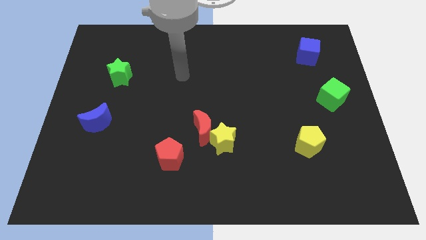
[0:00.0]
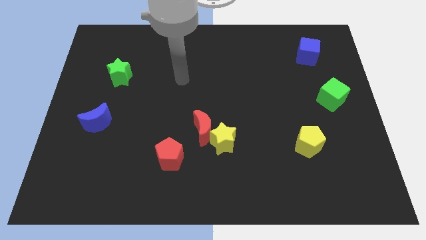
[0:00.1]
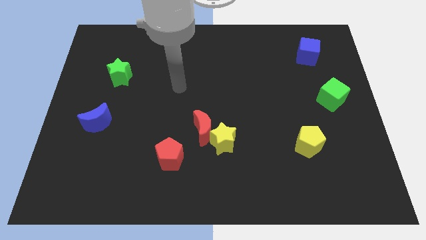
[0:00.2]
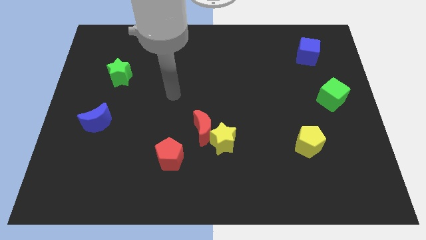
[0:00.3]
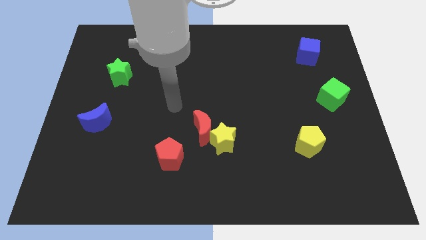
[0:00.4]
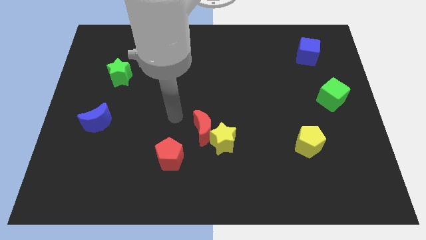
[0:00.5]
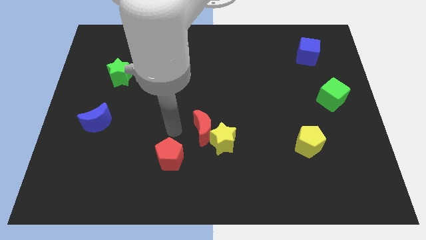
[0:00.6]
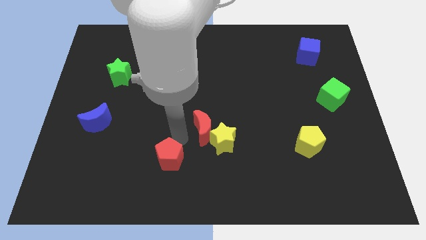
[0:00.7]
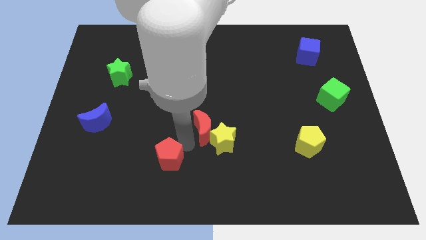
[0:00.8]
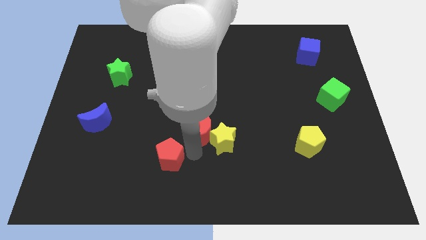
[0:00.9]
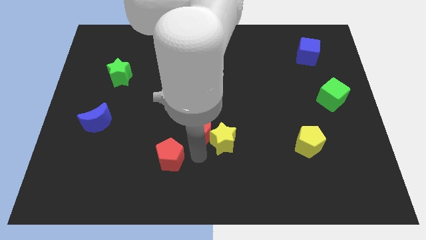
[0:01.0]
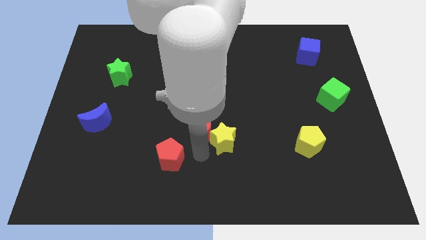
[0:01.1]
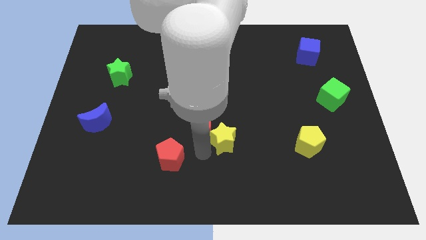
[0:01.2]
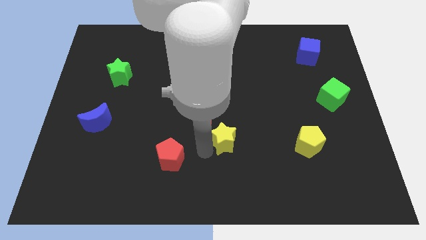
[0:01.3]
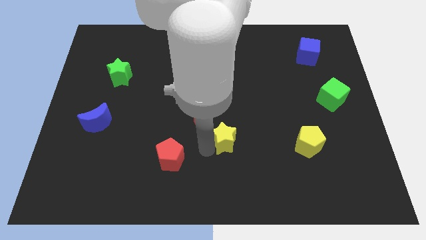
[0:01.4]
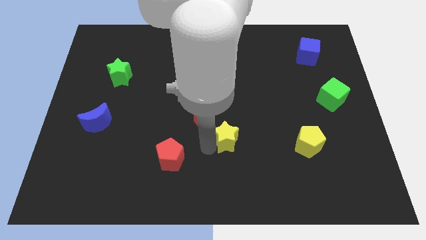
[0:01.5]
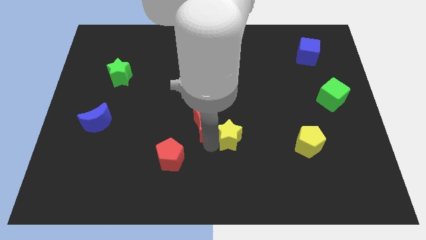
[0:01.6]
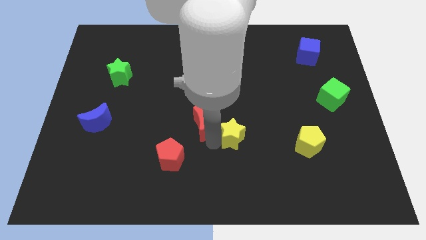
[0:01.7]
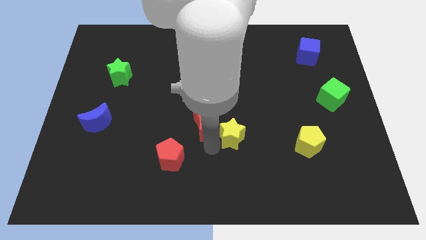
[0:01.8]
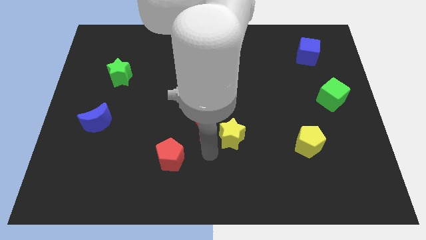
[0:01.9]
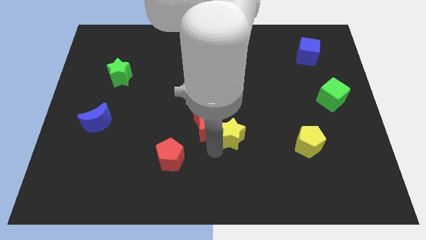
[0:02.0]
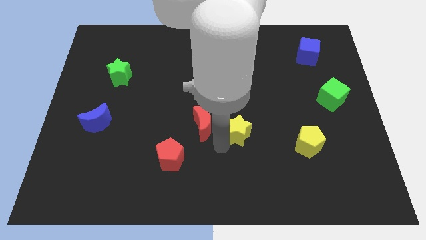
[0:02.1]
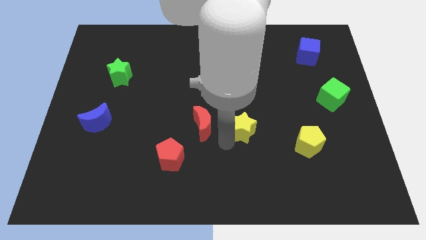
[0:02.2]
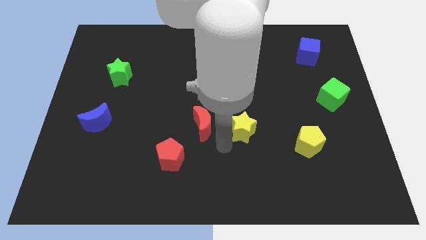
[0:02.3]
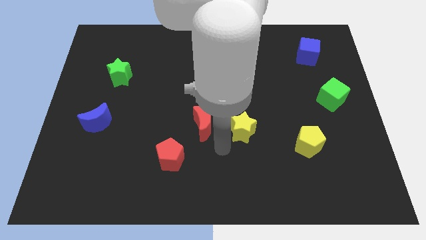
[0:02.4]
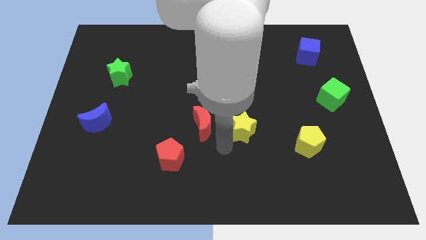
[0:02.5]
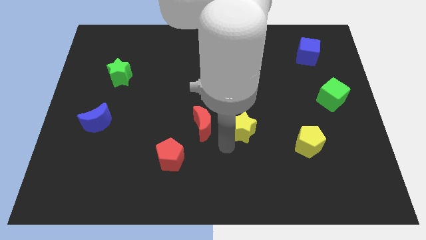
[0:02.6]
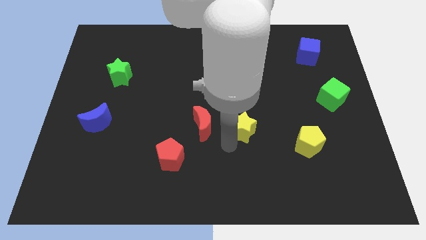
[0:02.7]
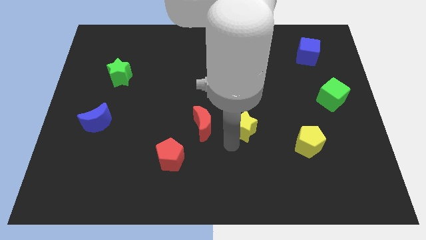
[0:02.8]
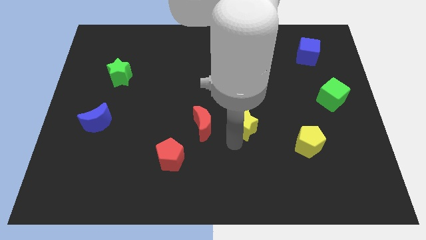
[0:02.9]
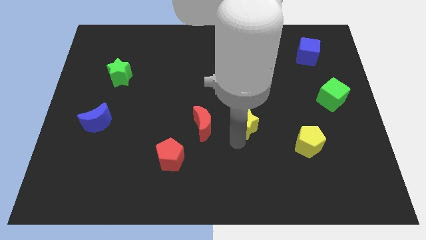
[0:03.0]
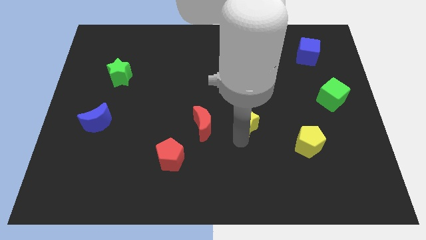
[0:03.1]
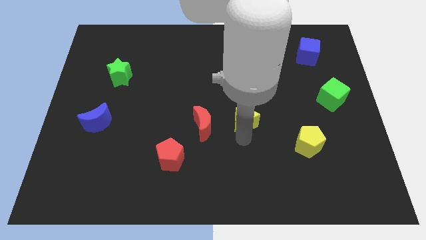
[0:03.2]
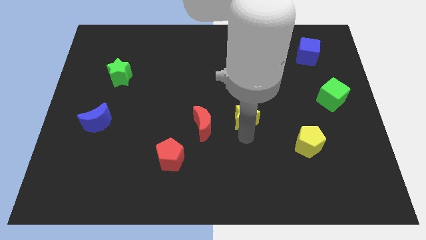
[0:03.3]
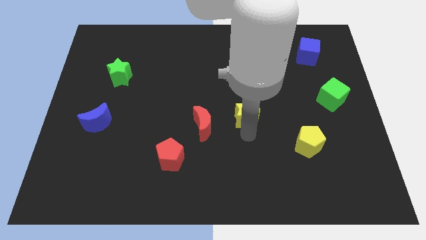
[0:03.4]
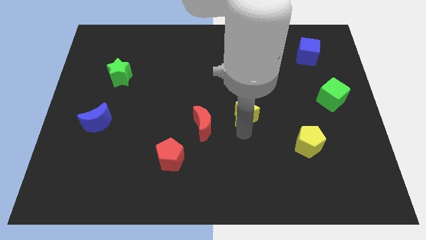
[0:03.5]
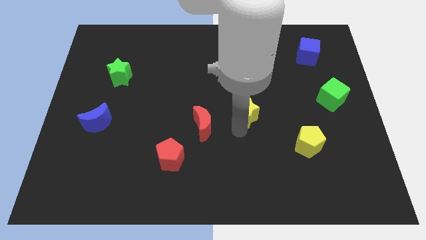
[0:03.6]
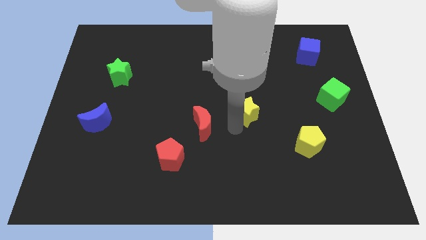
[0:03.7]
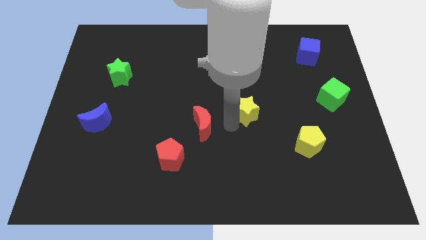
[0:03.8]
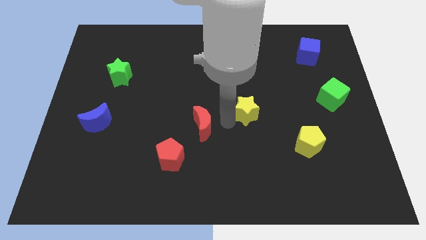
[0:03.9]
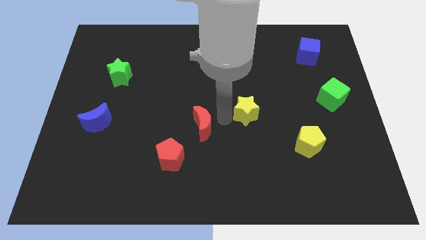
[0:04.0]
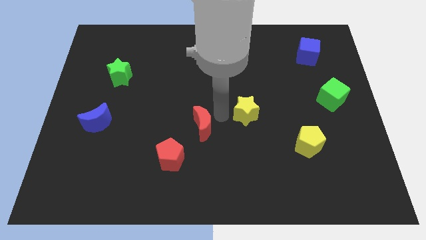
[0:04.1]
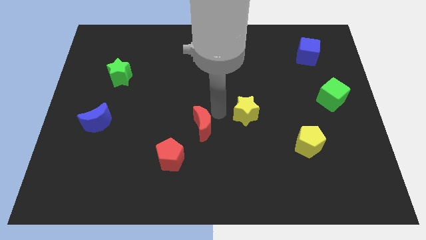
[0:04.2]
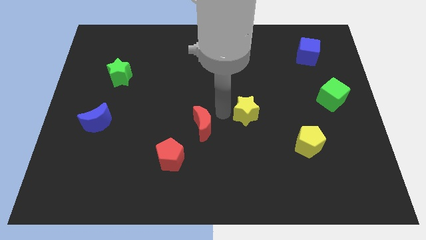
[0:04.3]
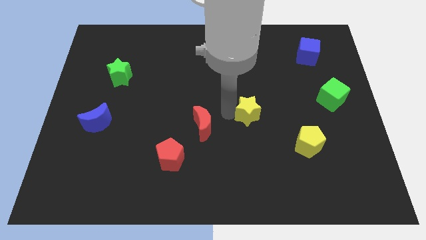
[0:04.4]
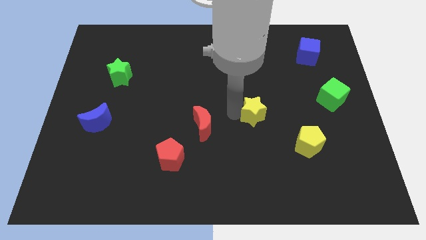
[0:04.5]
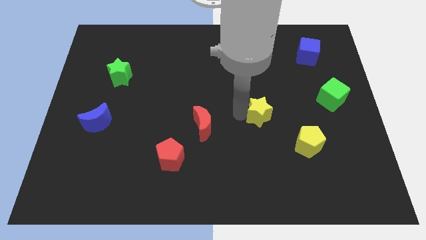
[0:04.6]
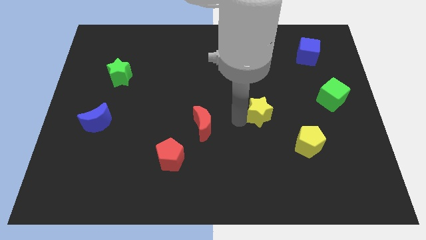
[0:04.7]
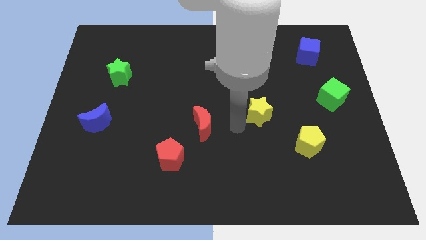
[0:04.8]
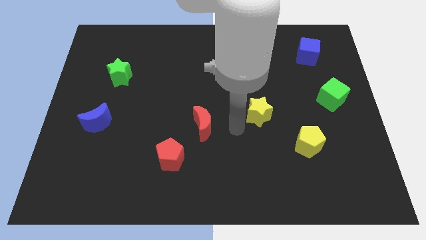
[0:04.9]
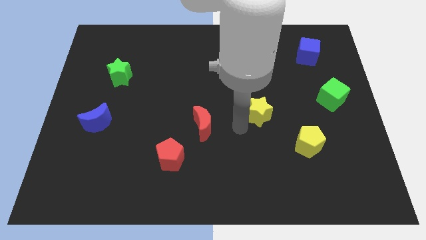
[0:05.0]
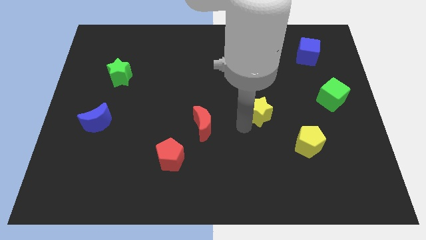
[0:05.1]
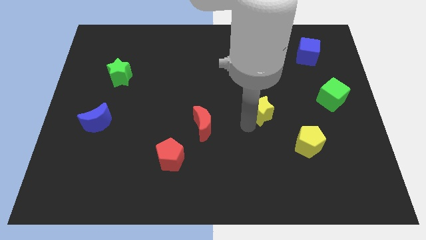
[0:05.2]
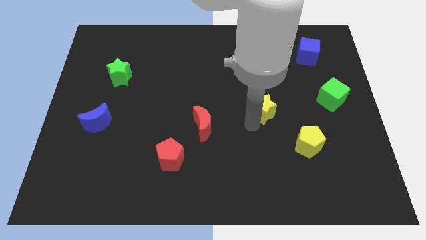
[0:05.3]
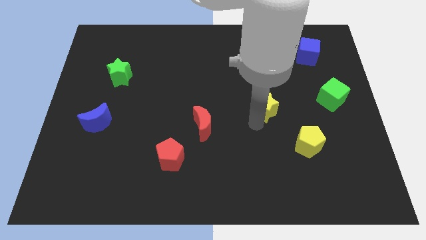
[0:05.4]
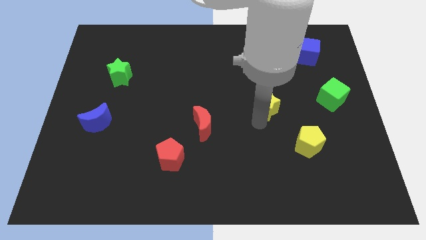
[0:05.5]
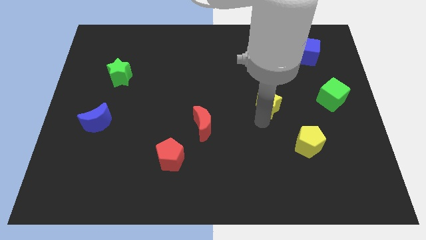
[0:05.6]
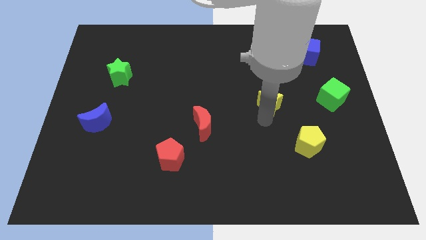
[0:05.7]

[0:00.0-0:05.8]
slide the yellow star to the left of the green cube

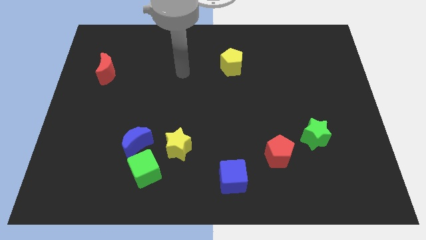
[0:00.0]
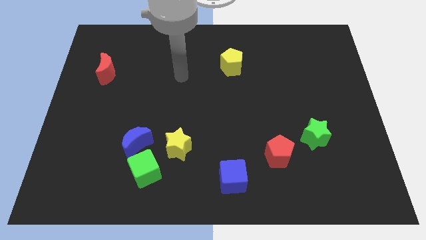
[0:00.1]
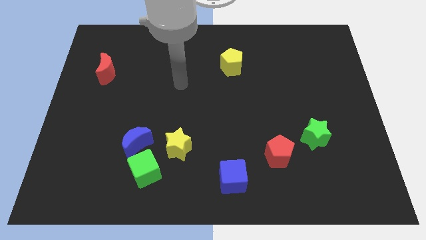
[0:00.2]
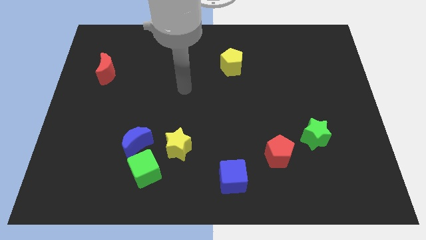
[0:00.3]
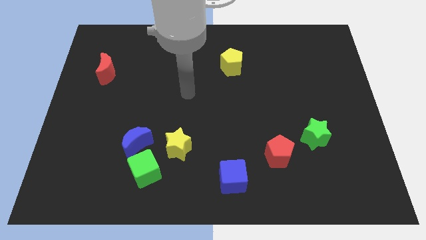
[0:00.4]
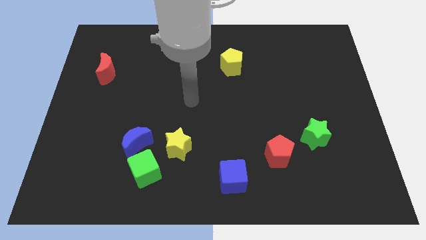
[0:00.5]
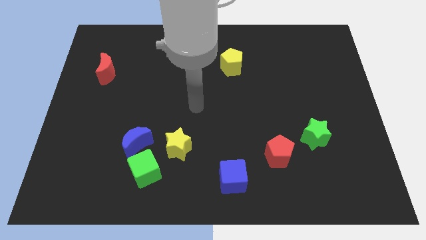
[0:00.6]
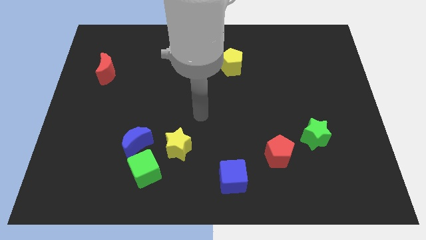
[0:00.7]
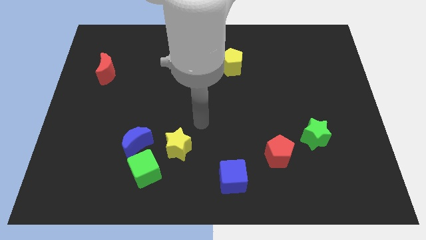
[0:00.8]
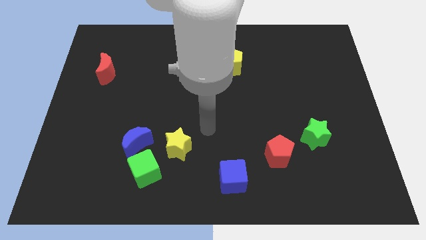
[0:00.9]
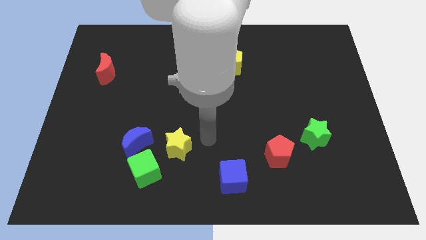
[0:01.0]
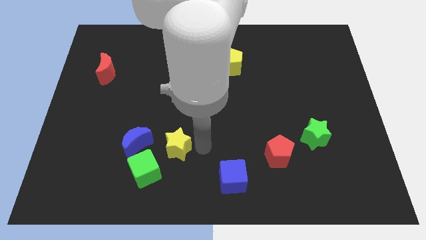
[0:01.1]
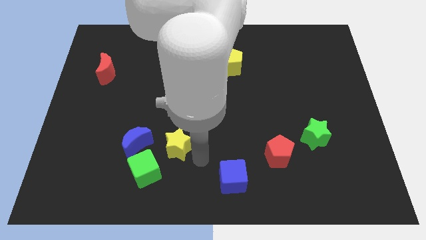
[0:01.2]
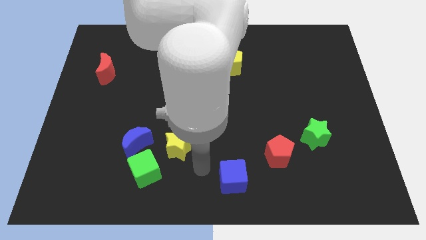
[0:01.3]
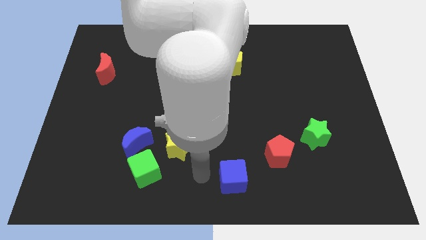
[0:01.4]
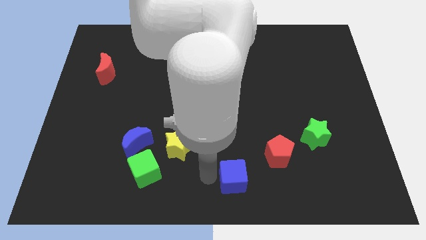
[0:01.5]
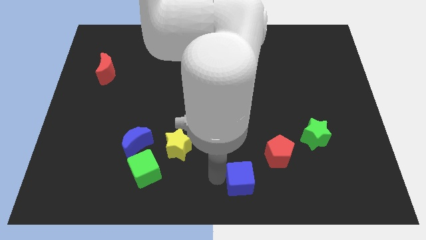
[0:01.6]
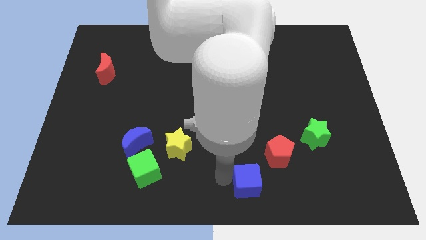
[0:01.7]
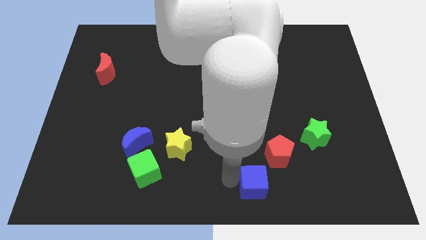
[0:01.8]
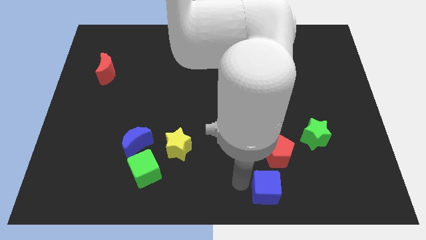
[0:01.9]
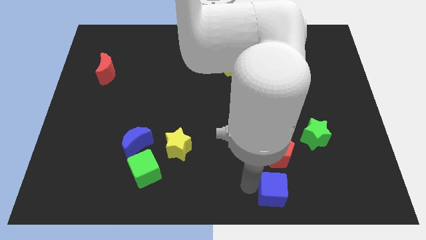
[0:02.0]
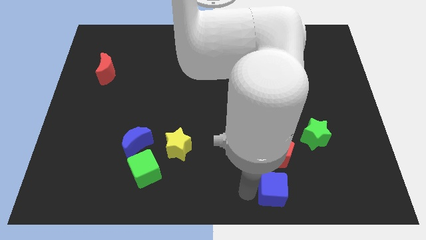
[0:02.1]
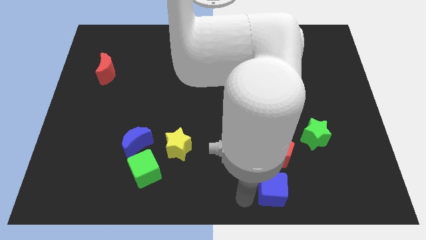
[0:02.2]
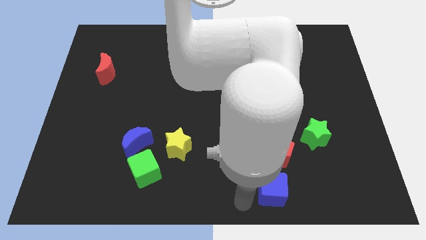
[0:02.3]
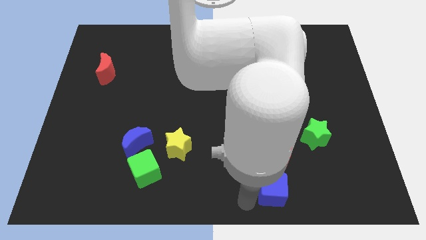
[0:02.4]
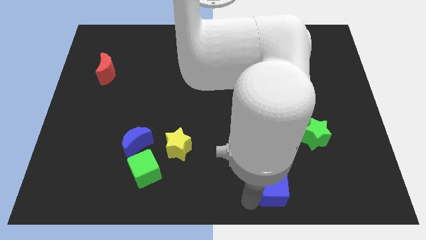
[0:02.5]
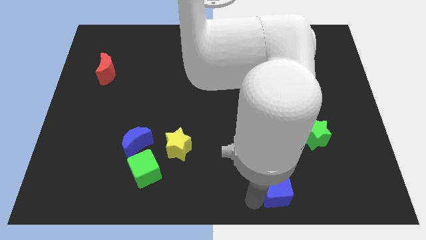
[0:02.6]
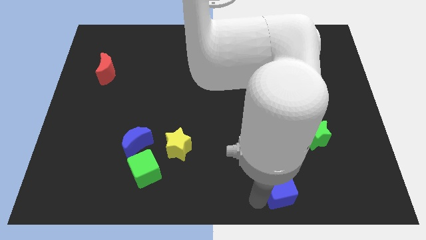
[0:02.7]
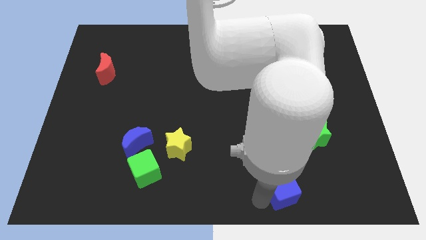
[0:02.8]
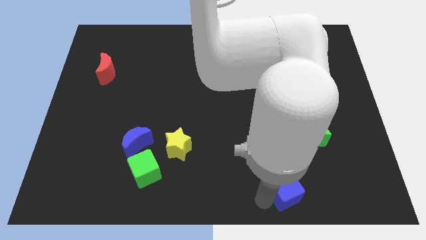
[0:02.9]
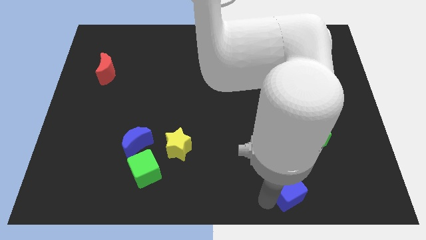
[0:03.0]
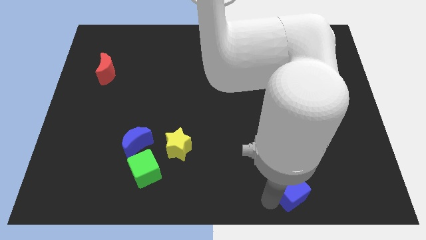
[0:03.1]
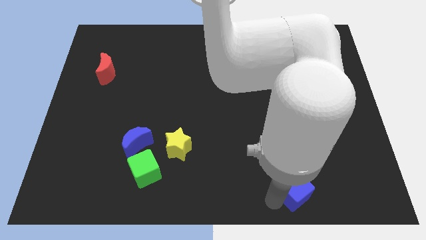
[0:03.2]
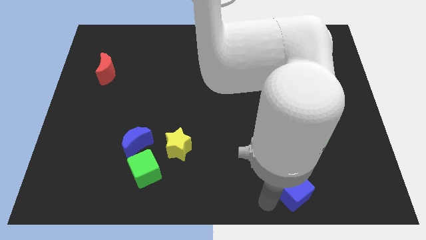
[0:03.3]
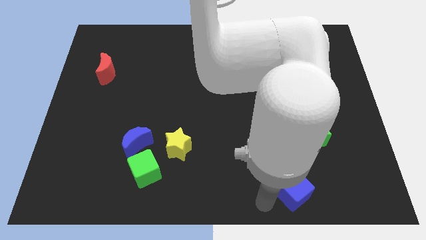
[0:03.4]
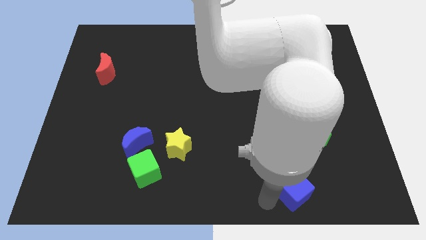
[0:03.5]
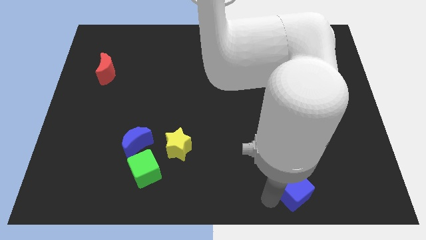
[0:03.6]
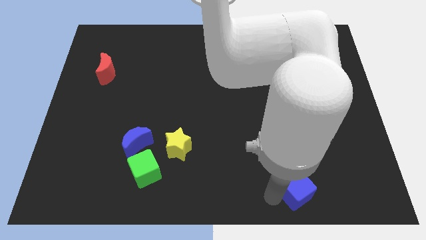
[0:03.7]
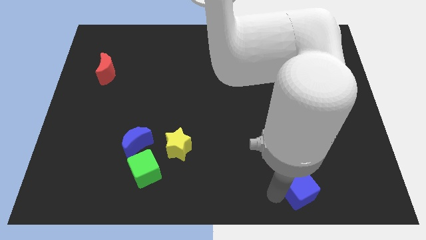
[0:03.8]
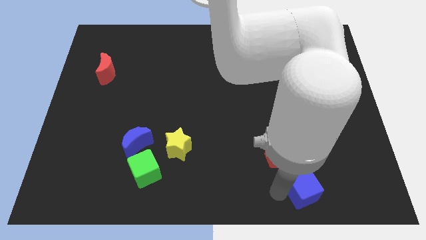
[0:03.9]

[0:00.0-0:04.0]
push the blue cube below the green star
